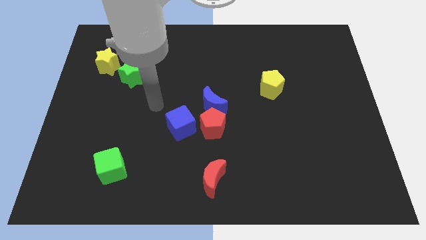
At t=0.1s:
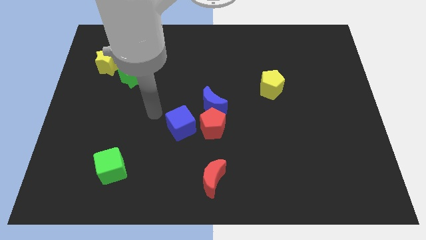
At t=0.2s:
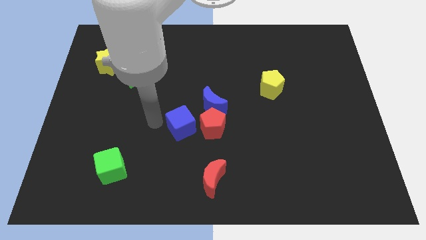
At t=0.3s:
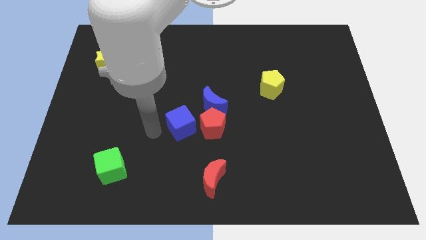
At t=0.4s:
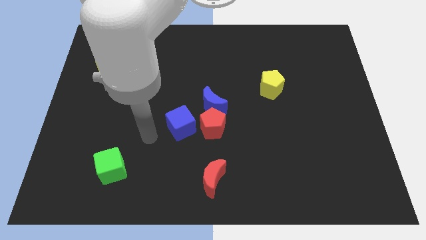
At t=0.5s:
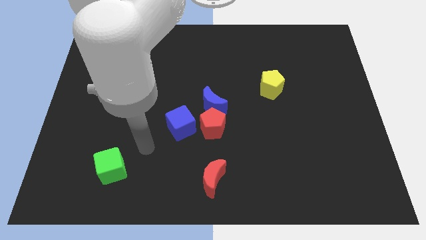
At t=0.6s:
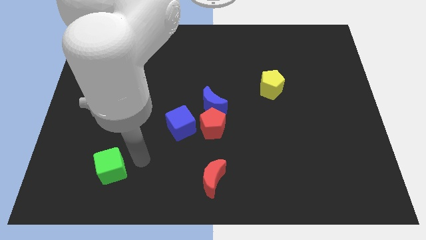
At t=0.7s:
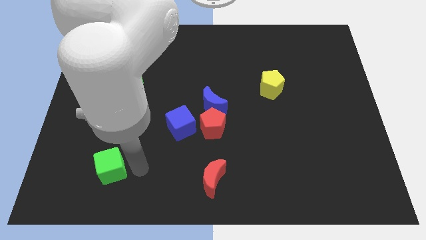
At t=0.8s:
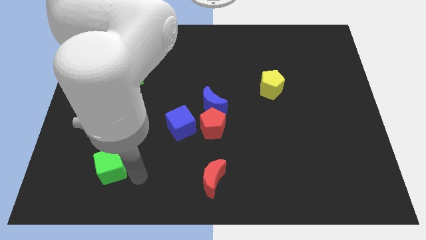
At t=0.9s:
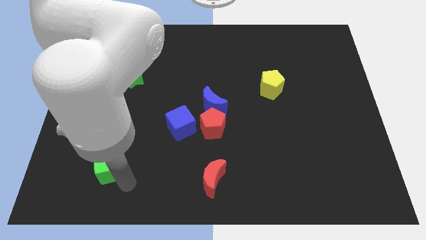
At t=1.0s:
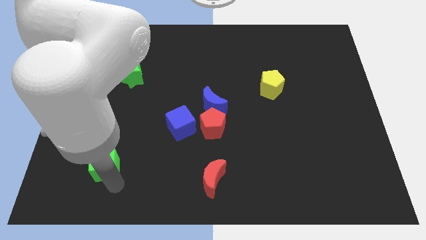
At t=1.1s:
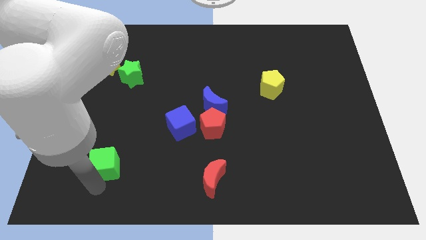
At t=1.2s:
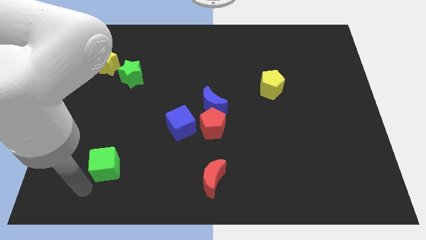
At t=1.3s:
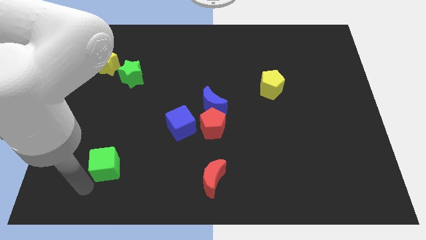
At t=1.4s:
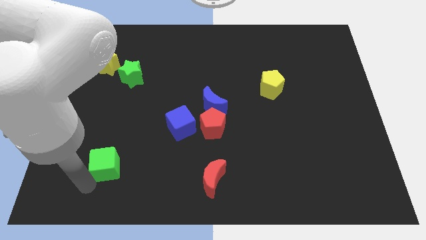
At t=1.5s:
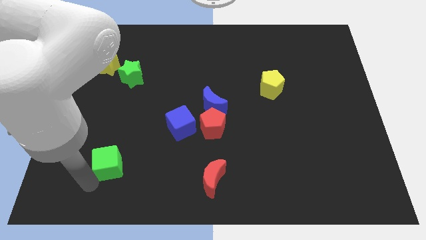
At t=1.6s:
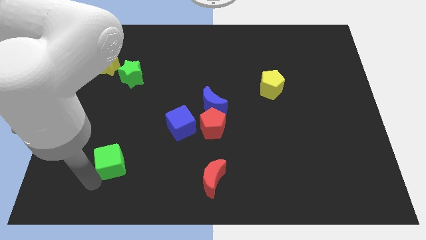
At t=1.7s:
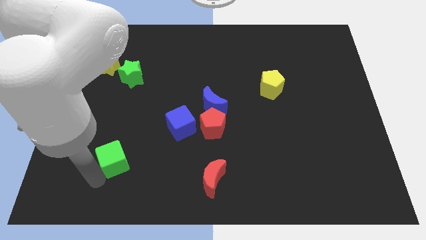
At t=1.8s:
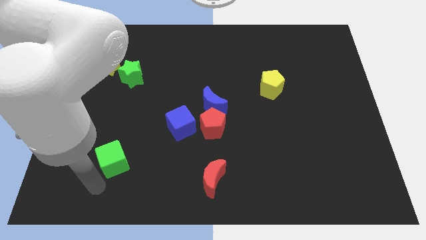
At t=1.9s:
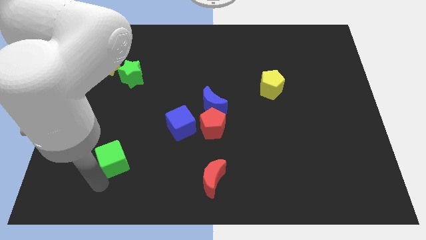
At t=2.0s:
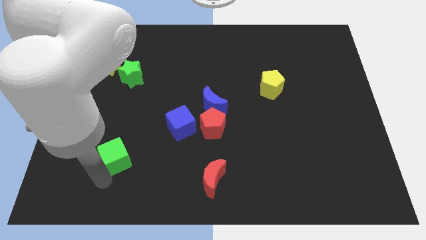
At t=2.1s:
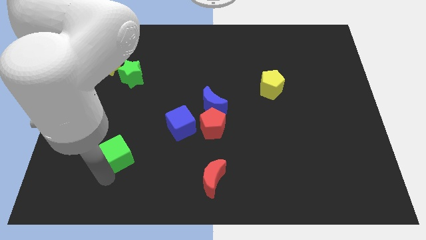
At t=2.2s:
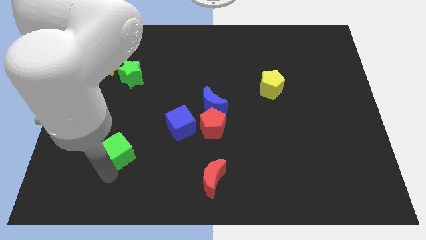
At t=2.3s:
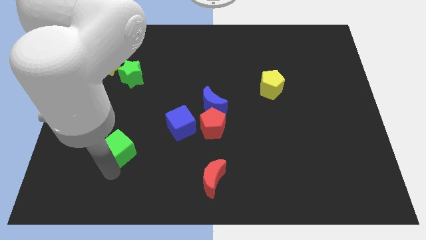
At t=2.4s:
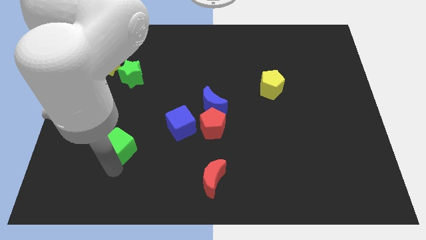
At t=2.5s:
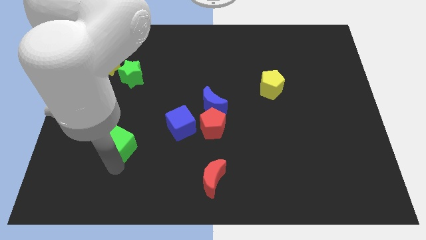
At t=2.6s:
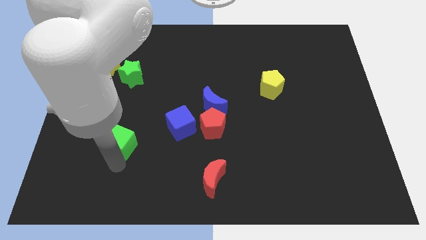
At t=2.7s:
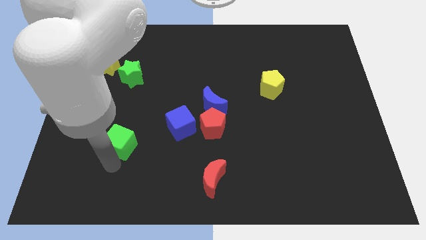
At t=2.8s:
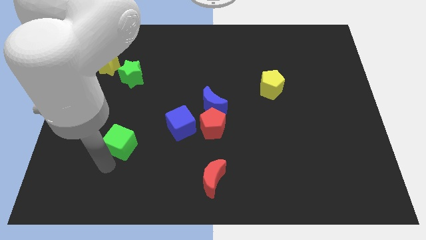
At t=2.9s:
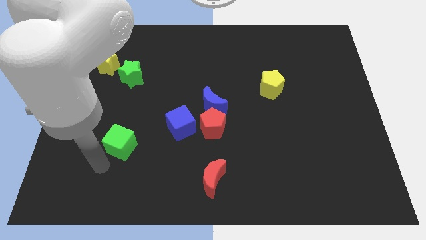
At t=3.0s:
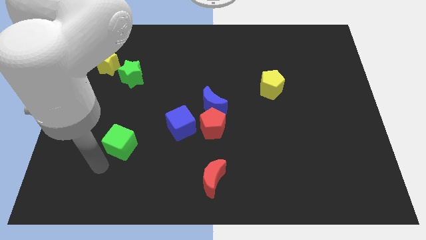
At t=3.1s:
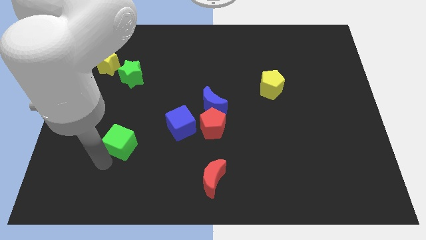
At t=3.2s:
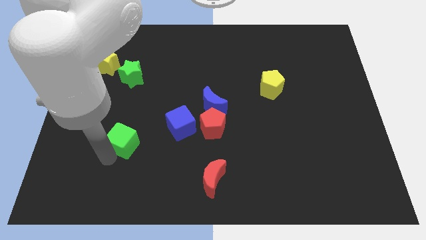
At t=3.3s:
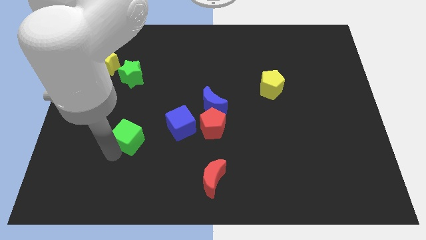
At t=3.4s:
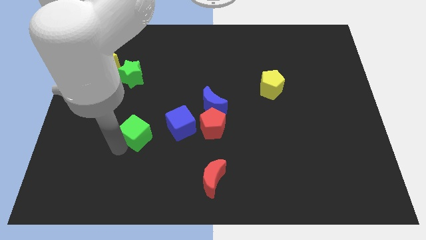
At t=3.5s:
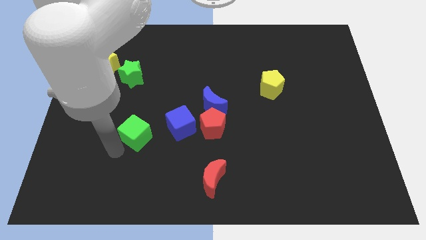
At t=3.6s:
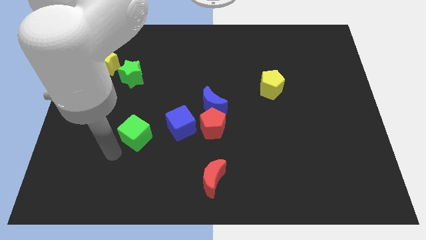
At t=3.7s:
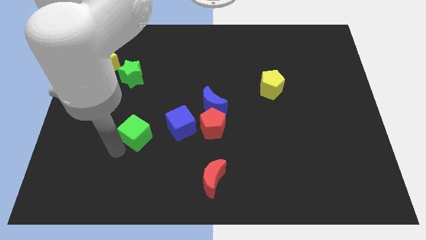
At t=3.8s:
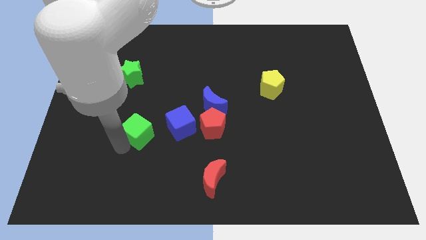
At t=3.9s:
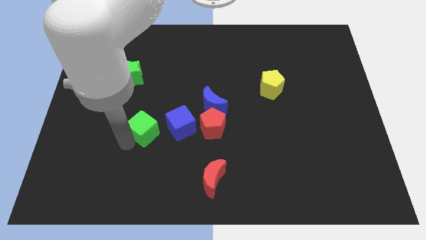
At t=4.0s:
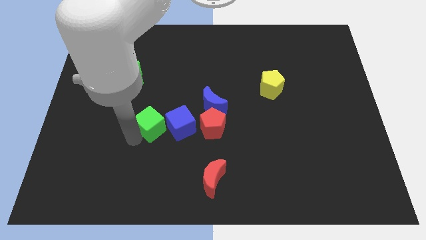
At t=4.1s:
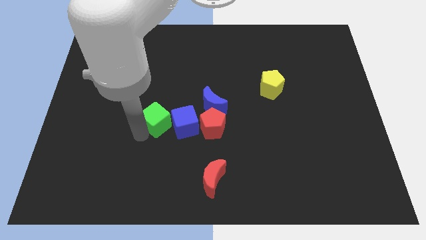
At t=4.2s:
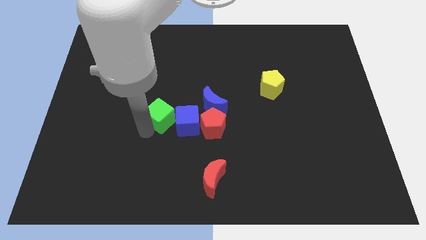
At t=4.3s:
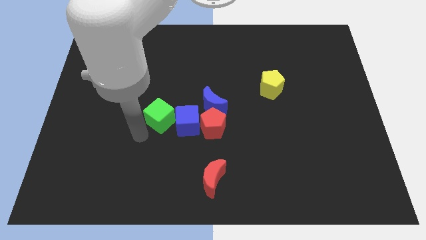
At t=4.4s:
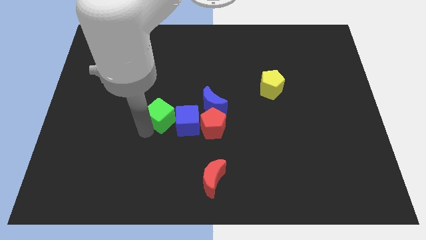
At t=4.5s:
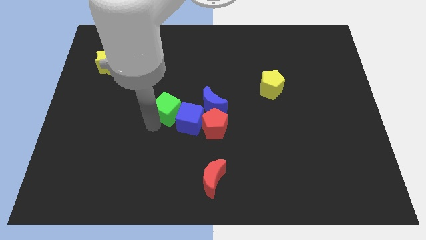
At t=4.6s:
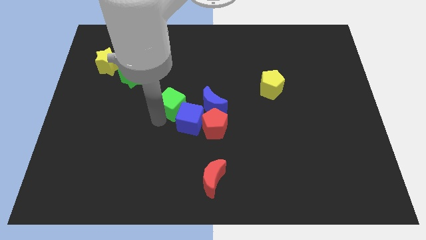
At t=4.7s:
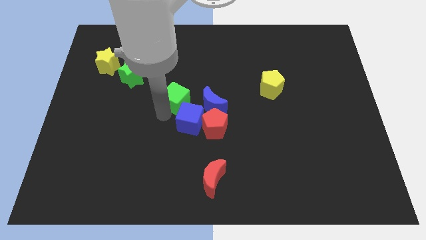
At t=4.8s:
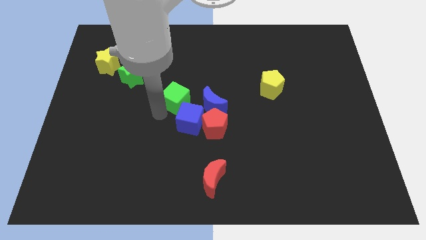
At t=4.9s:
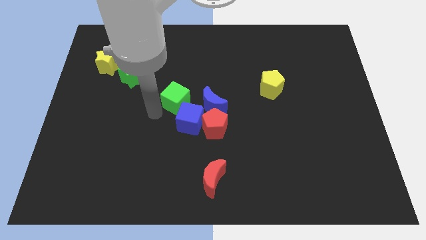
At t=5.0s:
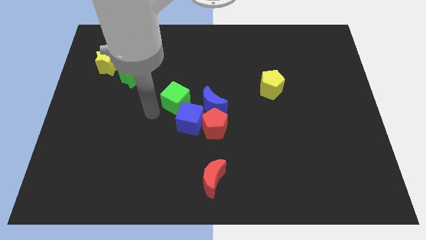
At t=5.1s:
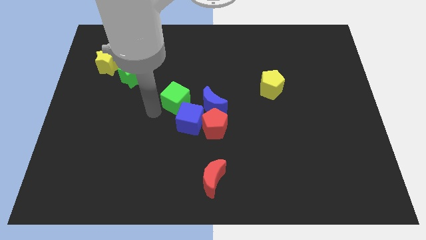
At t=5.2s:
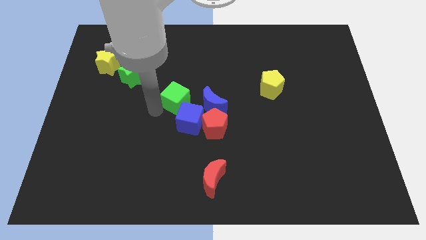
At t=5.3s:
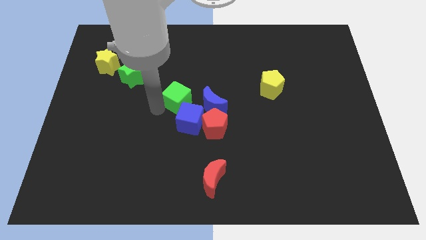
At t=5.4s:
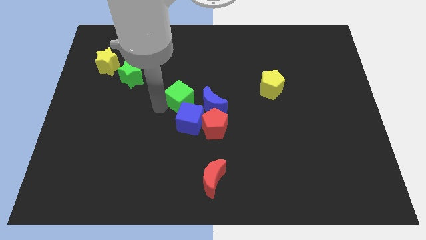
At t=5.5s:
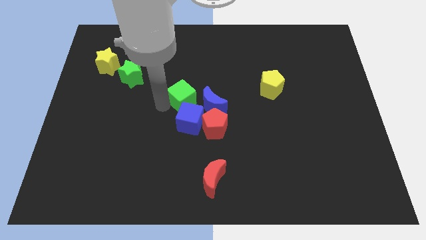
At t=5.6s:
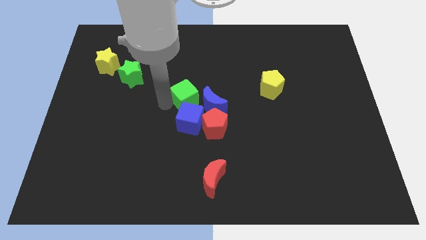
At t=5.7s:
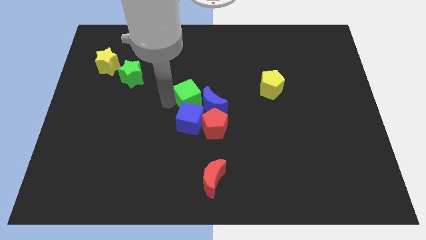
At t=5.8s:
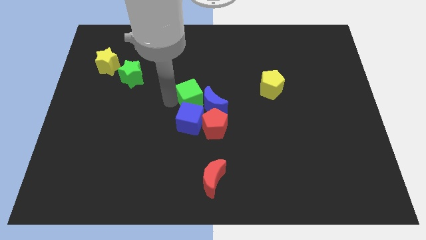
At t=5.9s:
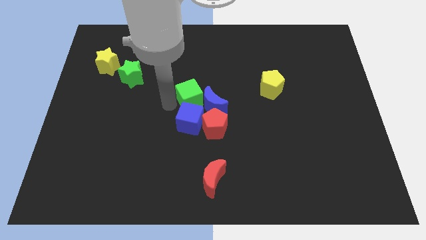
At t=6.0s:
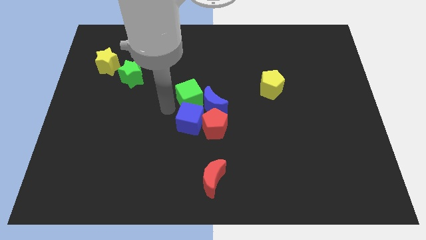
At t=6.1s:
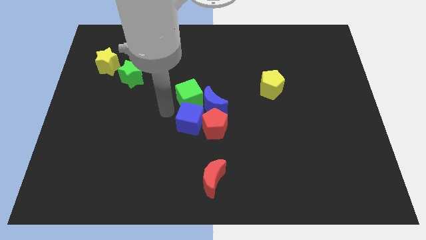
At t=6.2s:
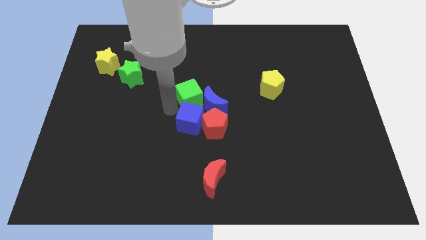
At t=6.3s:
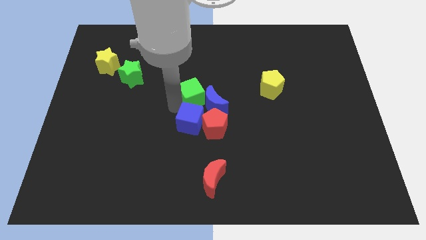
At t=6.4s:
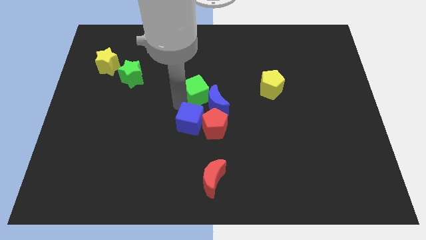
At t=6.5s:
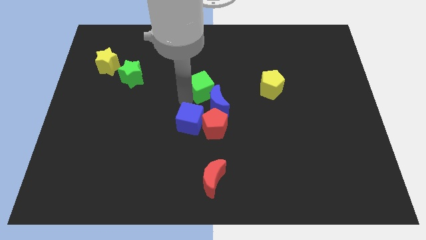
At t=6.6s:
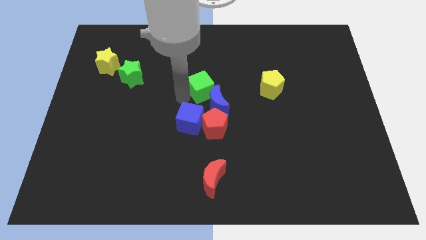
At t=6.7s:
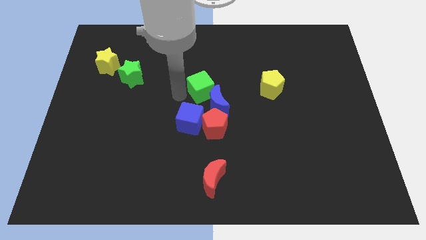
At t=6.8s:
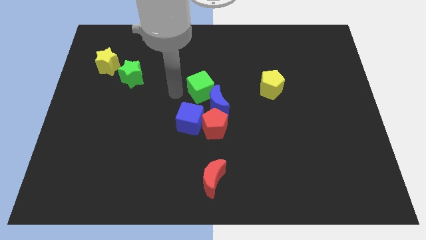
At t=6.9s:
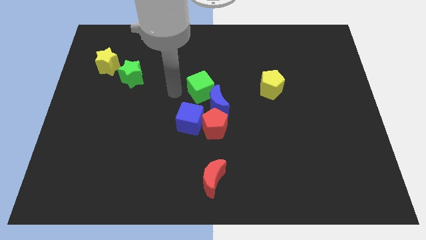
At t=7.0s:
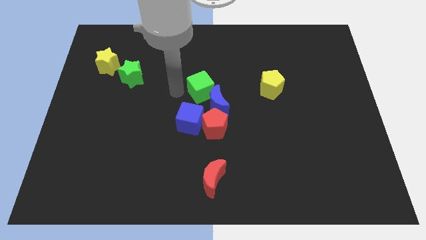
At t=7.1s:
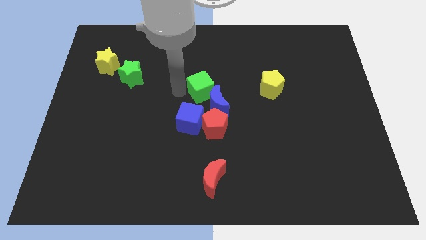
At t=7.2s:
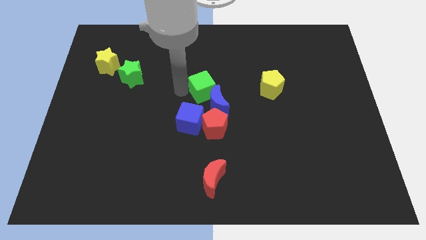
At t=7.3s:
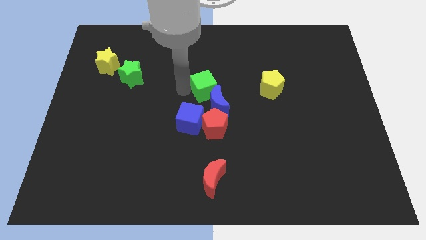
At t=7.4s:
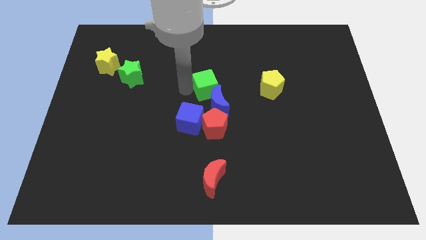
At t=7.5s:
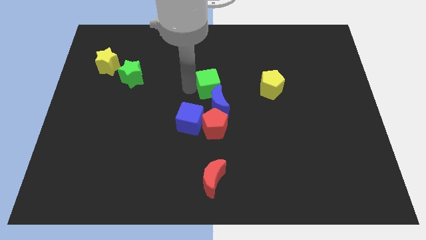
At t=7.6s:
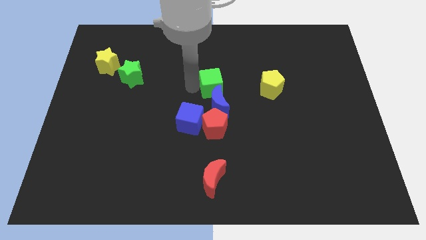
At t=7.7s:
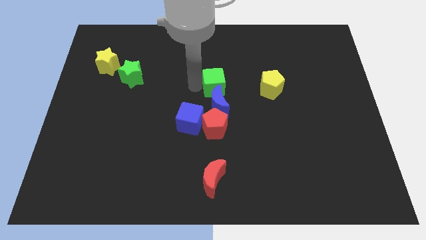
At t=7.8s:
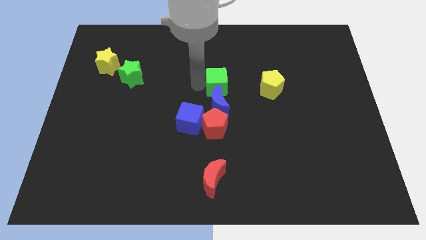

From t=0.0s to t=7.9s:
move the green cube to the top right of the blue moon
